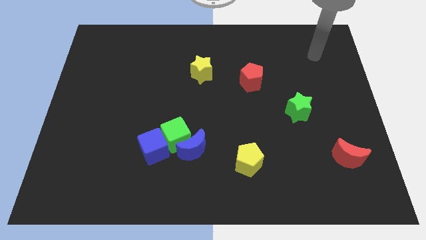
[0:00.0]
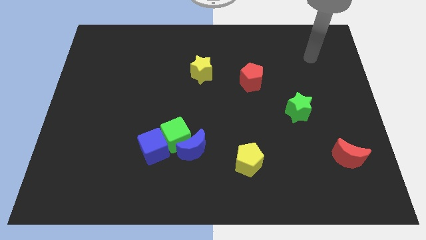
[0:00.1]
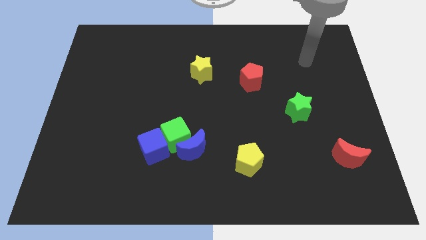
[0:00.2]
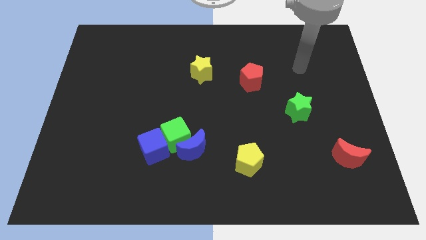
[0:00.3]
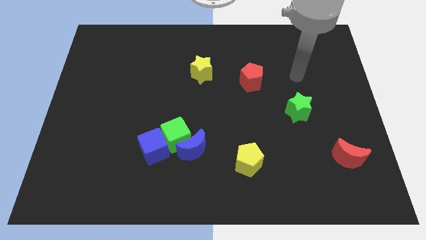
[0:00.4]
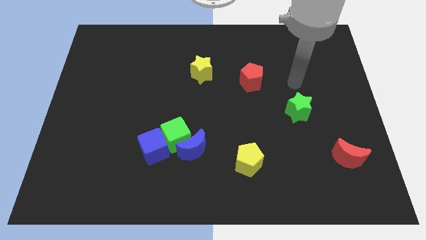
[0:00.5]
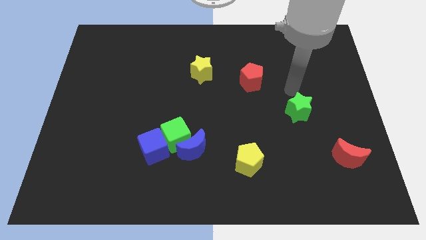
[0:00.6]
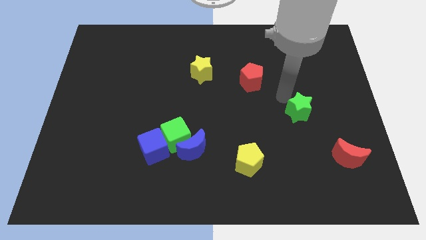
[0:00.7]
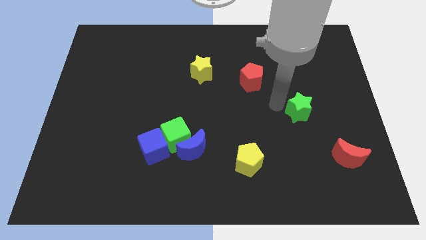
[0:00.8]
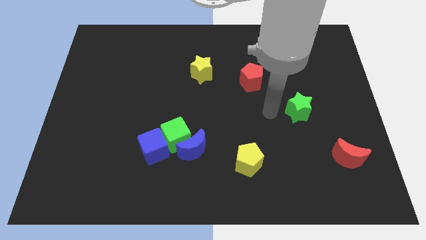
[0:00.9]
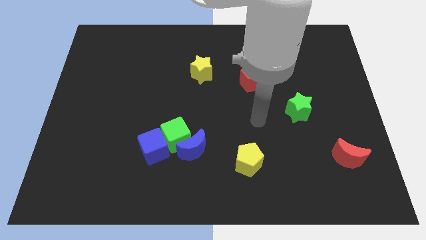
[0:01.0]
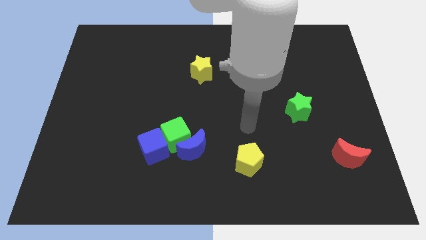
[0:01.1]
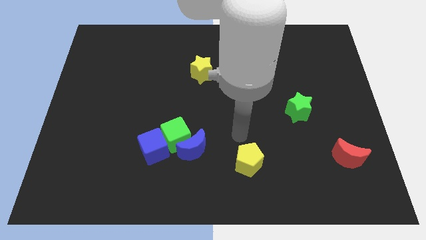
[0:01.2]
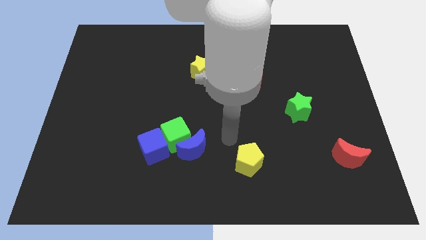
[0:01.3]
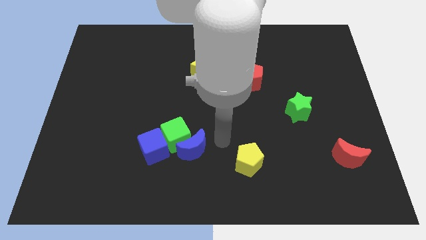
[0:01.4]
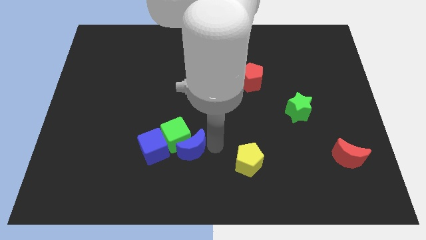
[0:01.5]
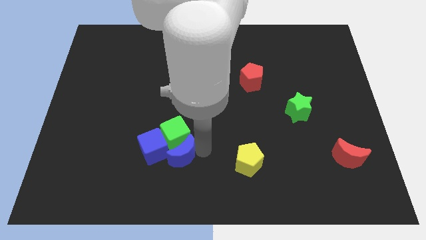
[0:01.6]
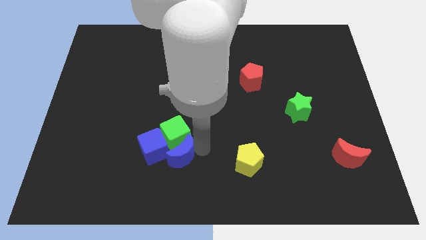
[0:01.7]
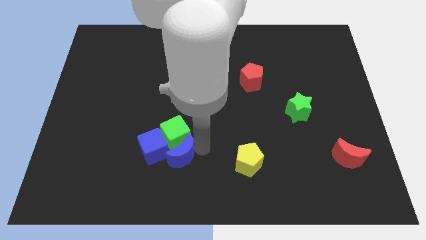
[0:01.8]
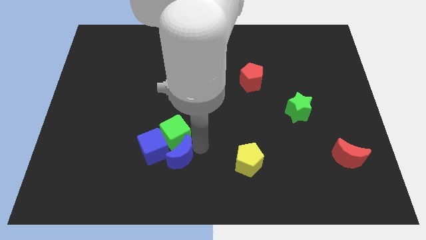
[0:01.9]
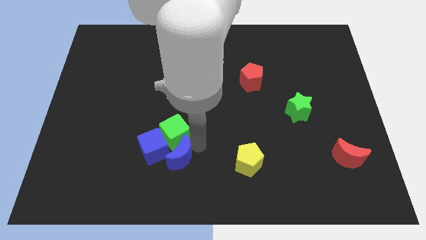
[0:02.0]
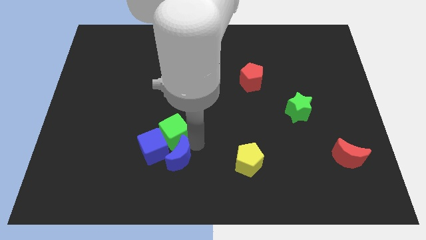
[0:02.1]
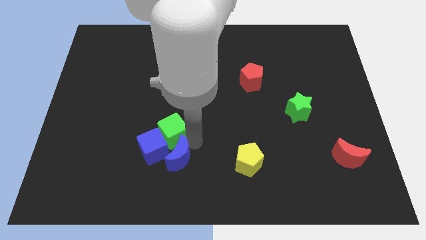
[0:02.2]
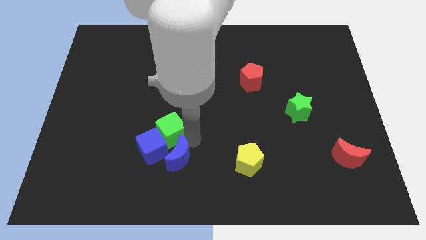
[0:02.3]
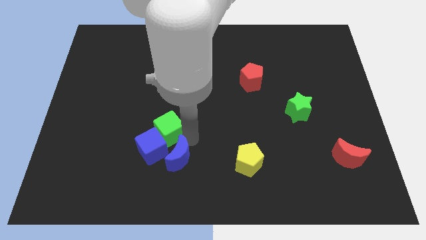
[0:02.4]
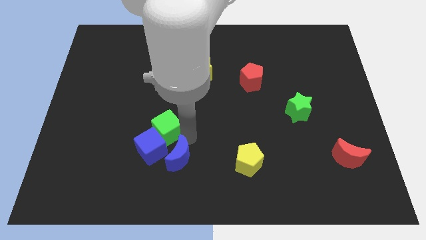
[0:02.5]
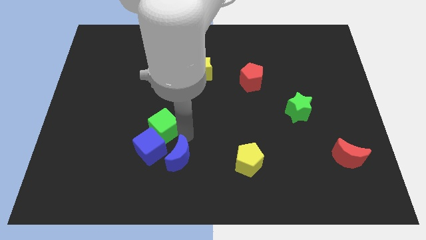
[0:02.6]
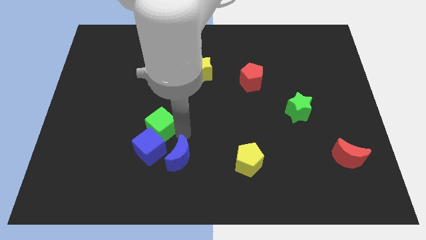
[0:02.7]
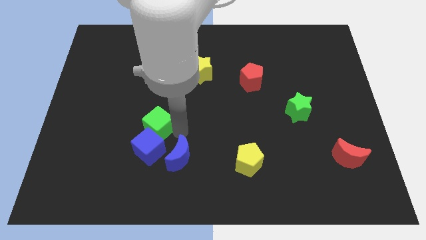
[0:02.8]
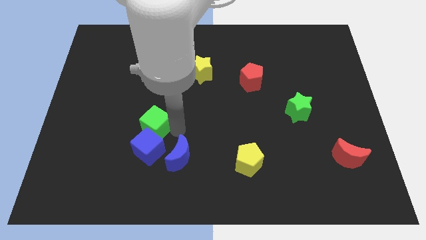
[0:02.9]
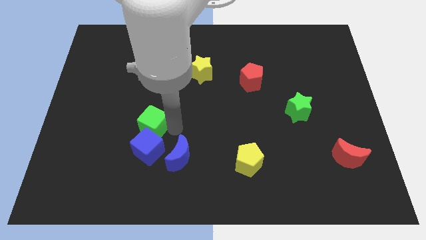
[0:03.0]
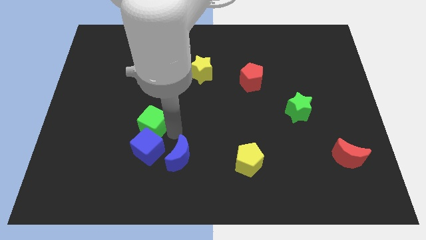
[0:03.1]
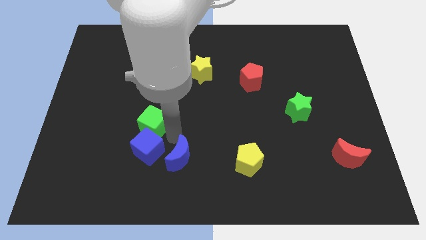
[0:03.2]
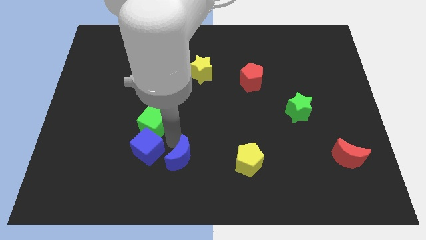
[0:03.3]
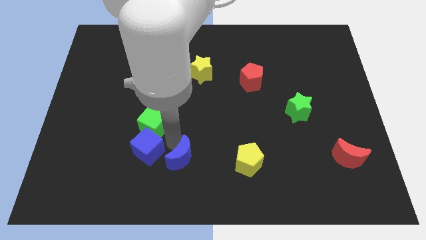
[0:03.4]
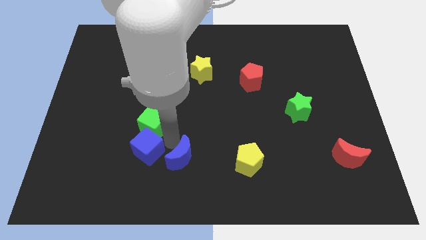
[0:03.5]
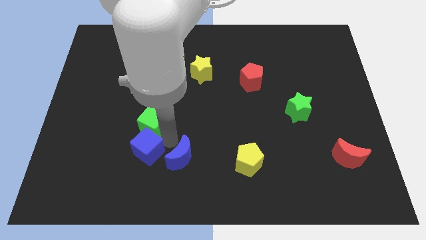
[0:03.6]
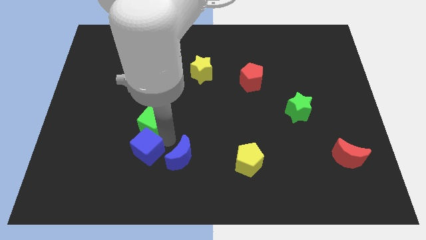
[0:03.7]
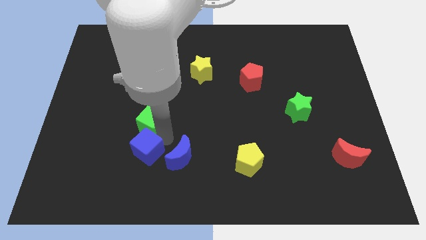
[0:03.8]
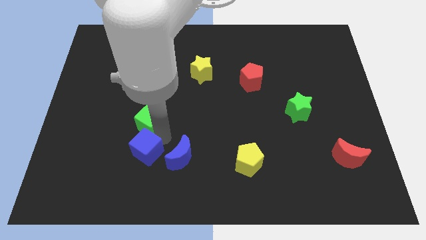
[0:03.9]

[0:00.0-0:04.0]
move the green cube up and to the left a little

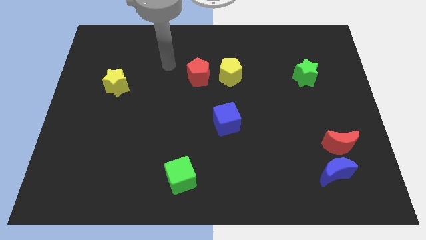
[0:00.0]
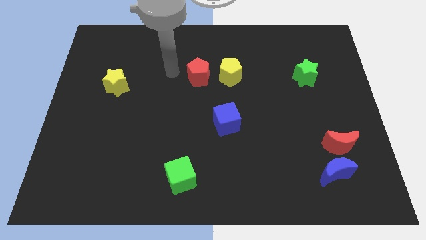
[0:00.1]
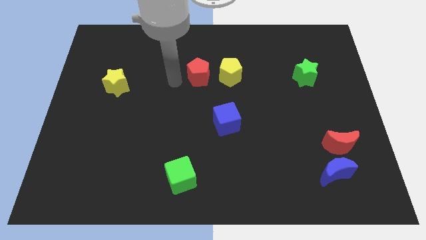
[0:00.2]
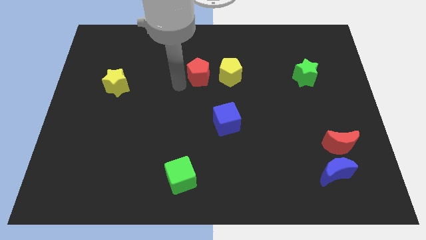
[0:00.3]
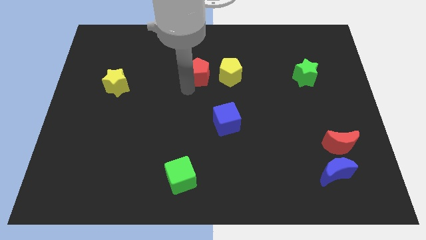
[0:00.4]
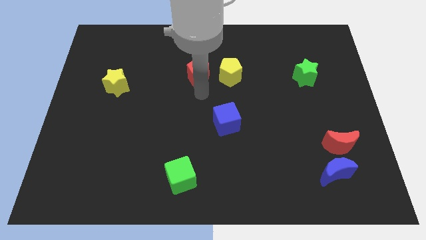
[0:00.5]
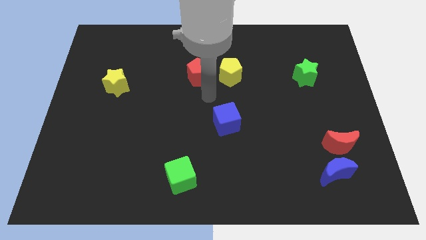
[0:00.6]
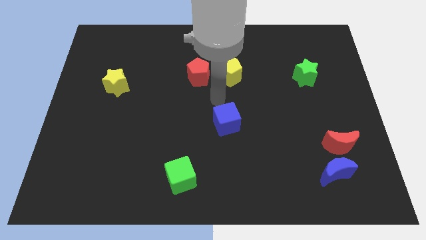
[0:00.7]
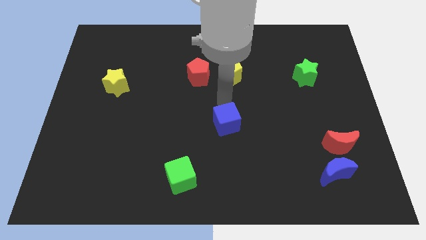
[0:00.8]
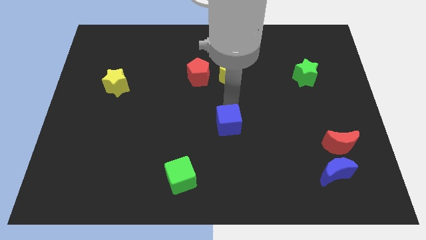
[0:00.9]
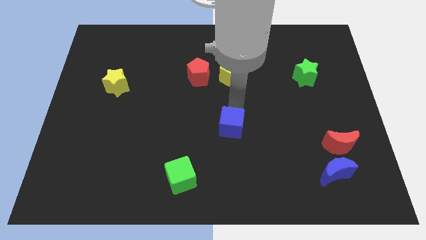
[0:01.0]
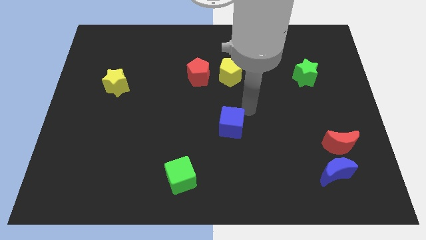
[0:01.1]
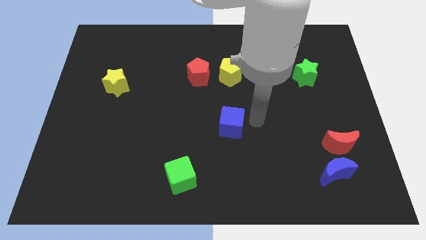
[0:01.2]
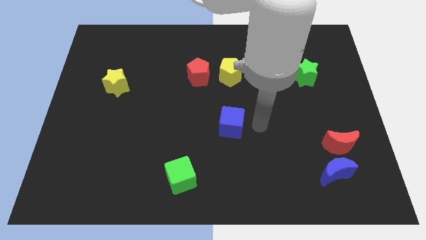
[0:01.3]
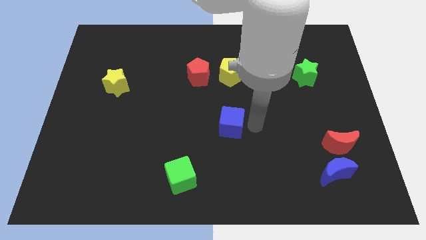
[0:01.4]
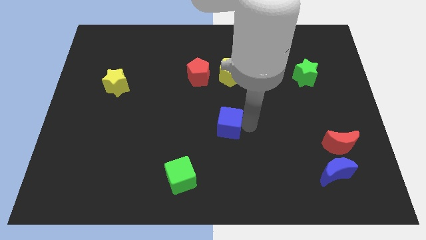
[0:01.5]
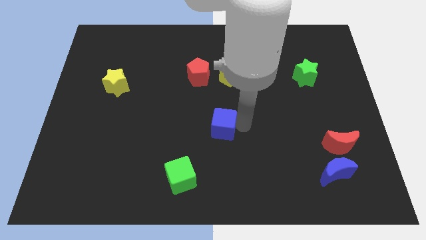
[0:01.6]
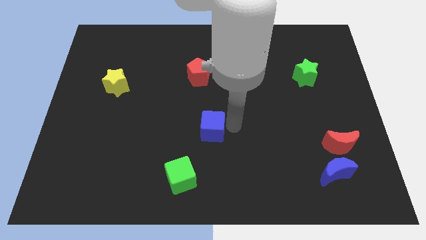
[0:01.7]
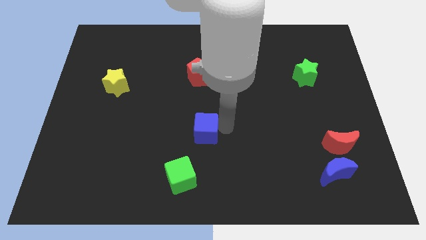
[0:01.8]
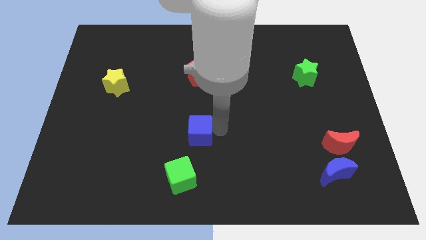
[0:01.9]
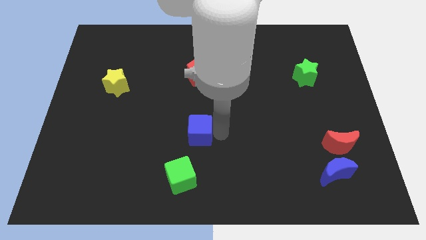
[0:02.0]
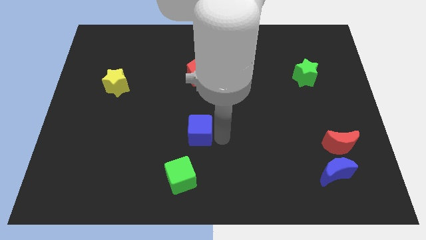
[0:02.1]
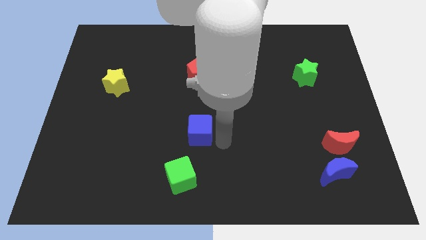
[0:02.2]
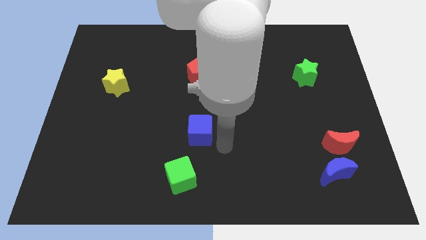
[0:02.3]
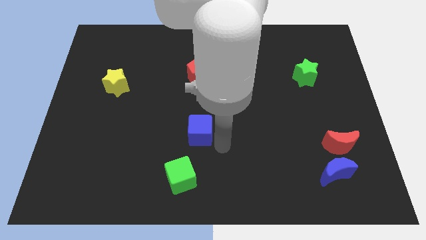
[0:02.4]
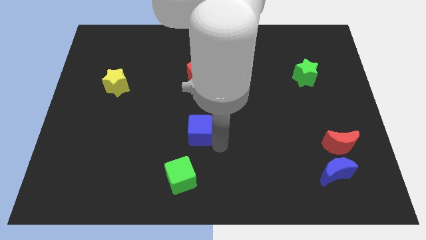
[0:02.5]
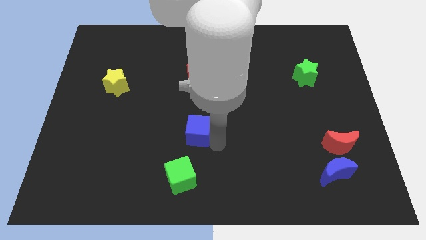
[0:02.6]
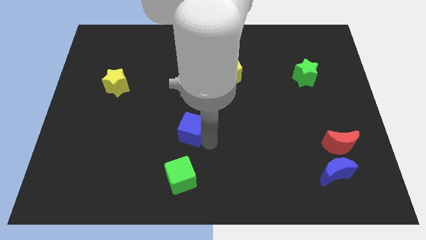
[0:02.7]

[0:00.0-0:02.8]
push the blue cube a little bit left

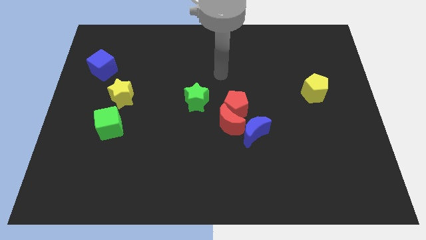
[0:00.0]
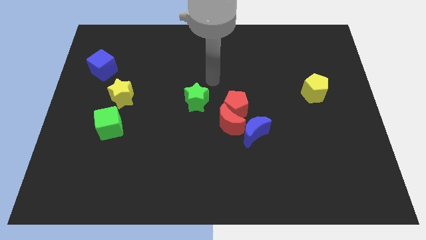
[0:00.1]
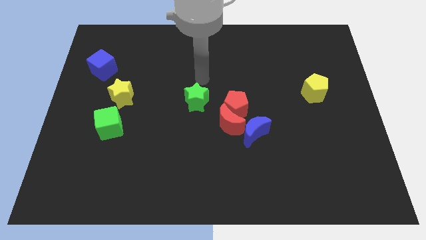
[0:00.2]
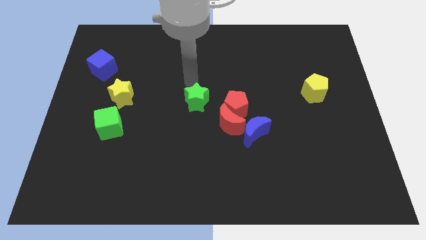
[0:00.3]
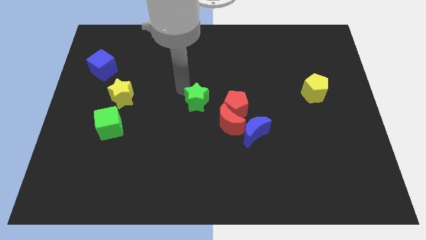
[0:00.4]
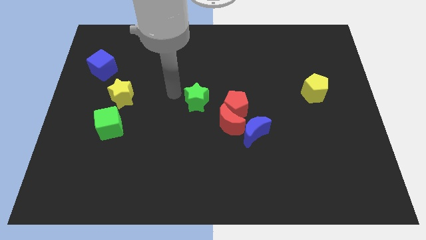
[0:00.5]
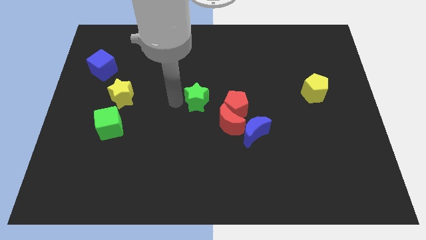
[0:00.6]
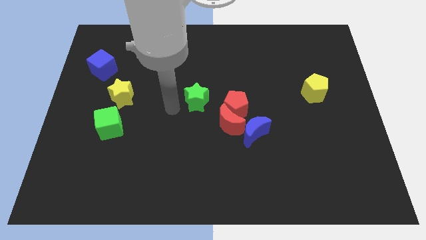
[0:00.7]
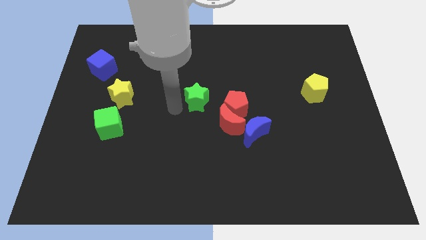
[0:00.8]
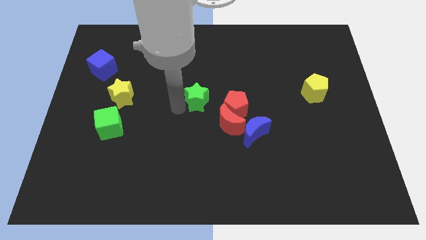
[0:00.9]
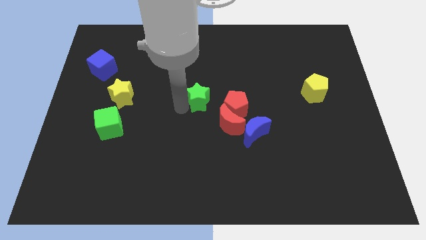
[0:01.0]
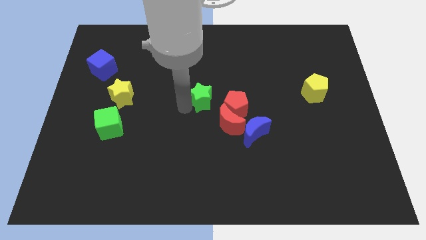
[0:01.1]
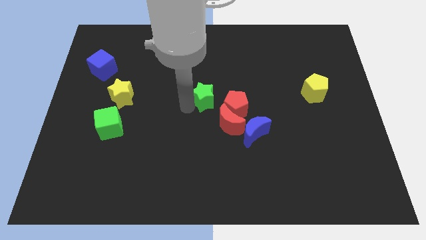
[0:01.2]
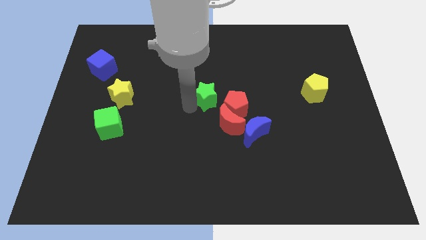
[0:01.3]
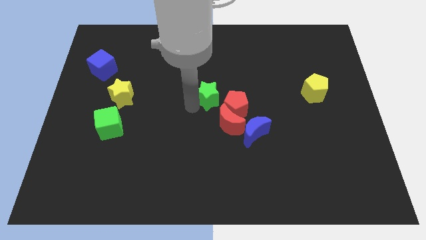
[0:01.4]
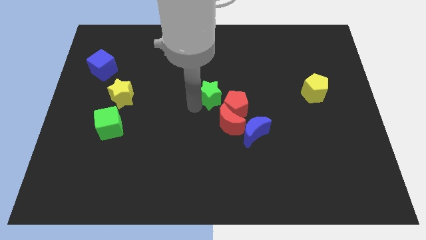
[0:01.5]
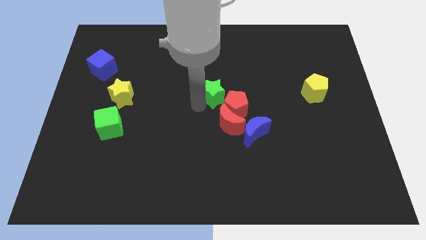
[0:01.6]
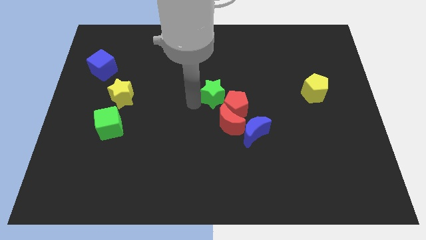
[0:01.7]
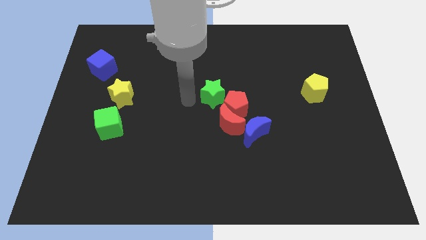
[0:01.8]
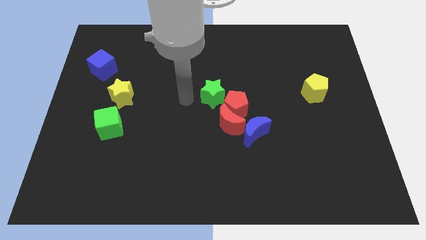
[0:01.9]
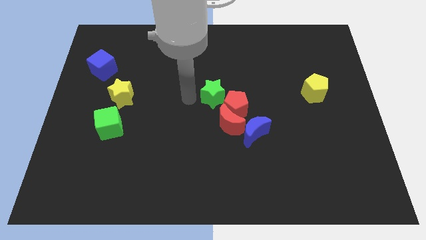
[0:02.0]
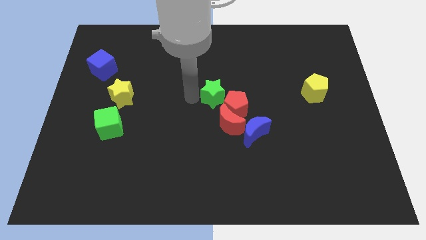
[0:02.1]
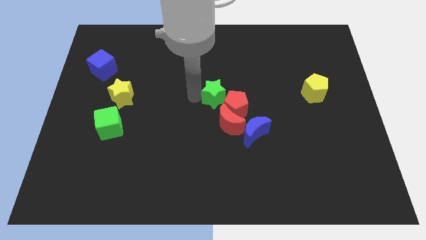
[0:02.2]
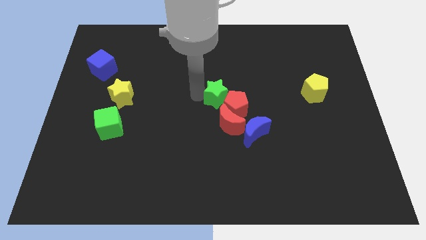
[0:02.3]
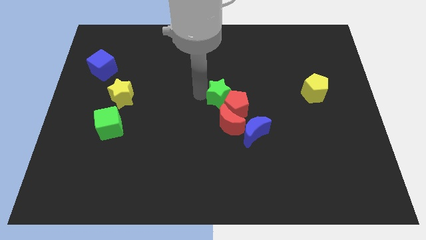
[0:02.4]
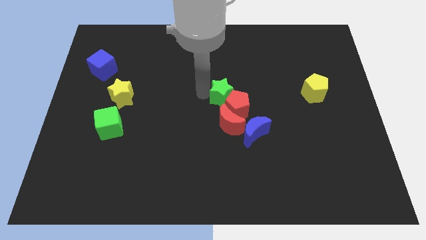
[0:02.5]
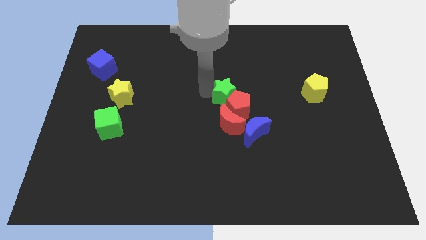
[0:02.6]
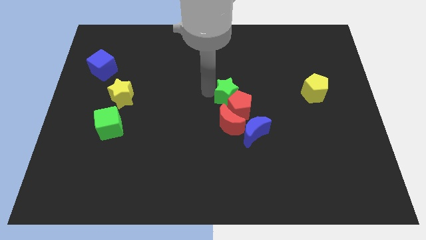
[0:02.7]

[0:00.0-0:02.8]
slightly push the green star to the right
